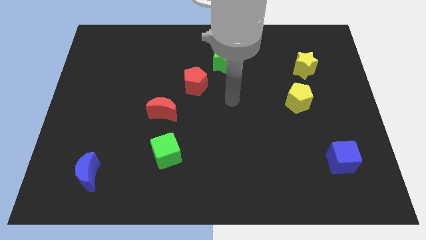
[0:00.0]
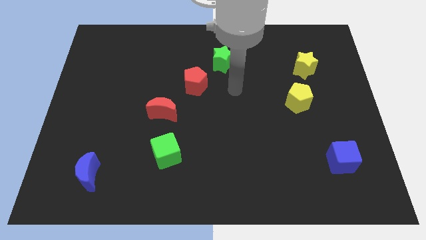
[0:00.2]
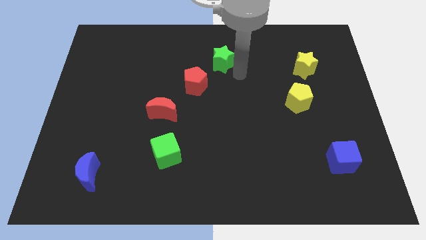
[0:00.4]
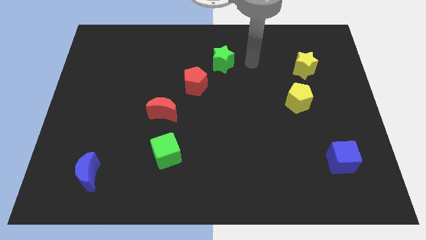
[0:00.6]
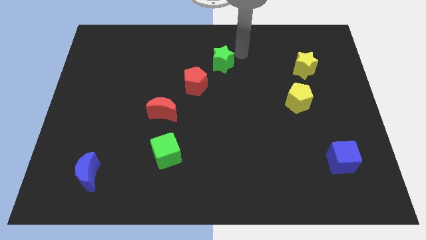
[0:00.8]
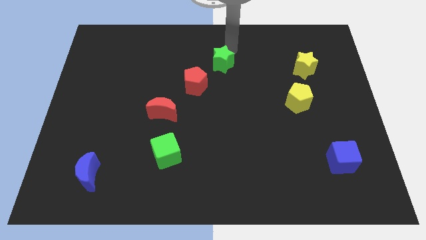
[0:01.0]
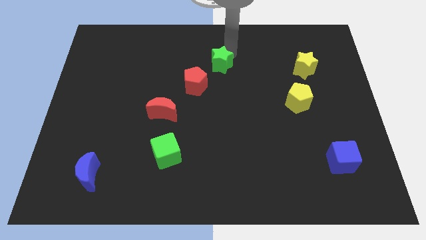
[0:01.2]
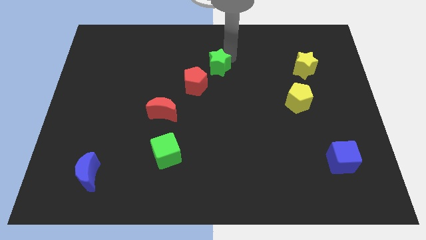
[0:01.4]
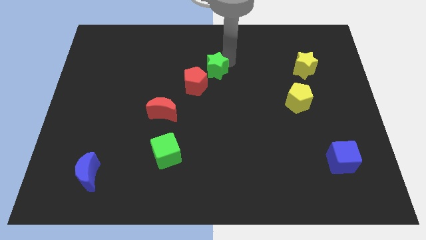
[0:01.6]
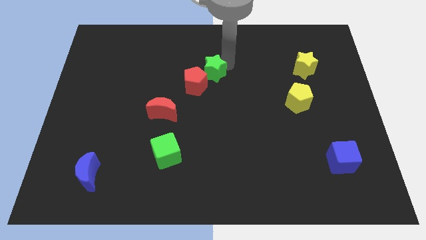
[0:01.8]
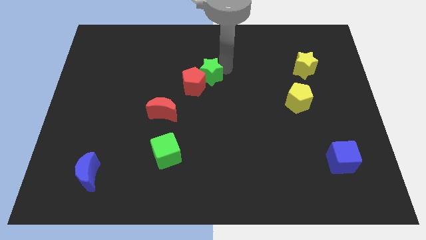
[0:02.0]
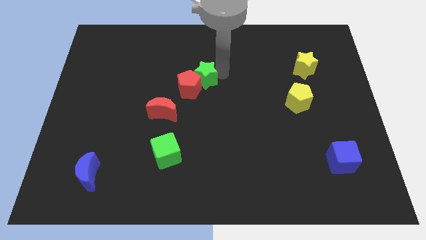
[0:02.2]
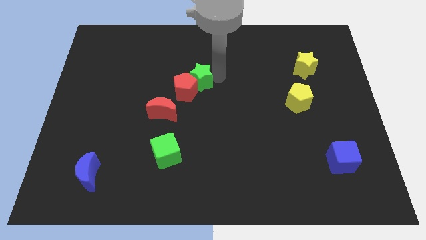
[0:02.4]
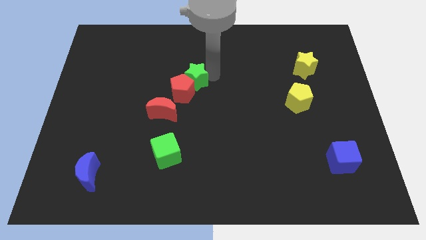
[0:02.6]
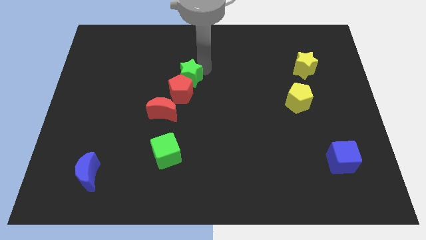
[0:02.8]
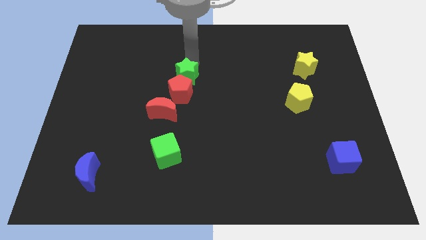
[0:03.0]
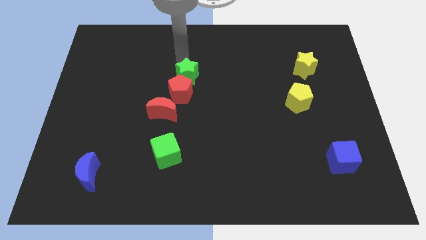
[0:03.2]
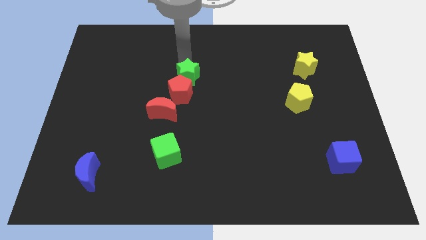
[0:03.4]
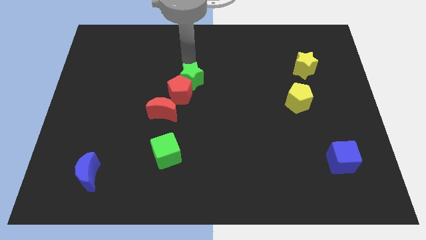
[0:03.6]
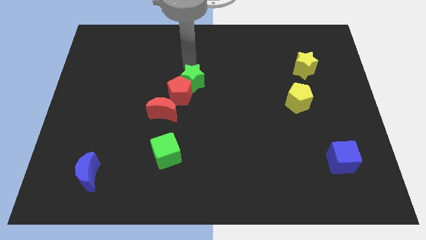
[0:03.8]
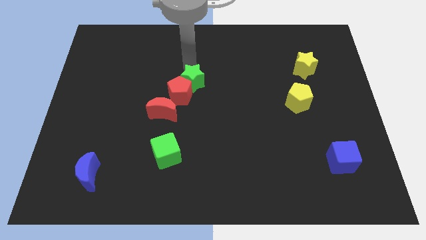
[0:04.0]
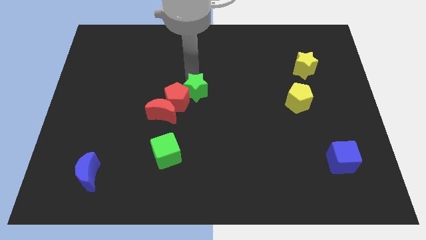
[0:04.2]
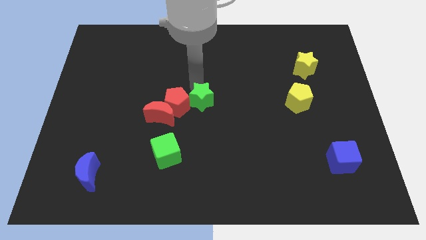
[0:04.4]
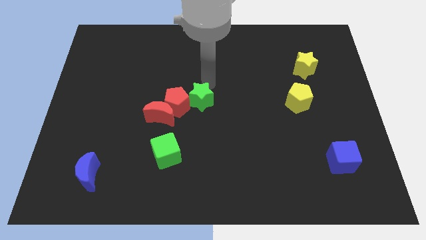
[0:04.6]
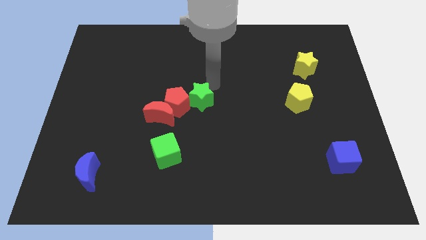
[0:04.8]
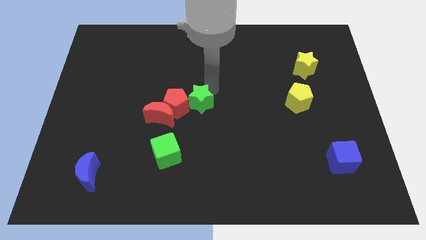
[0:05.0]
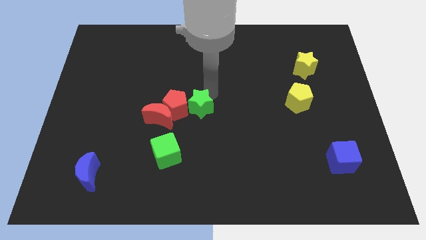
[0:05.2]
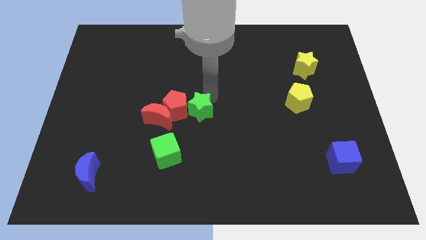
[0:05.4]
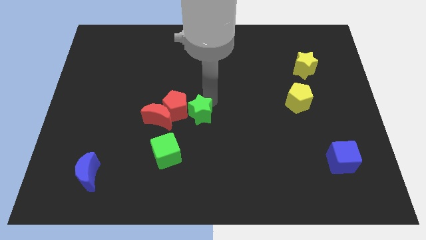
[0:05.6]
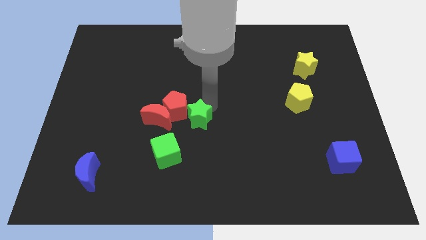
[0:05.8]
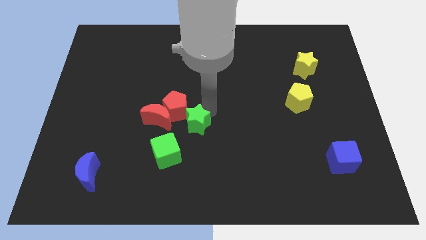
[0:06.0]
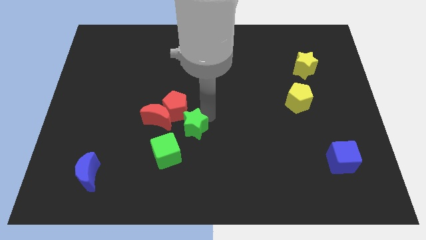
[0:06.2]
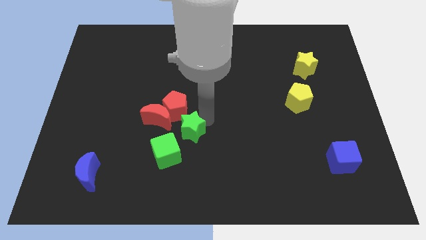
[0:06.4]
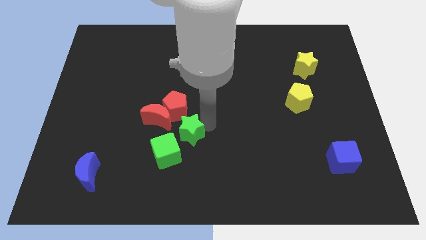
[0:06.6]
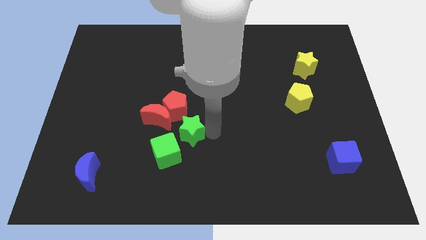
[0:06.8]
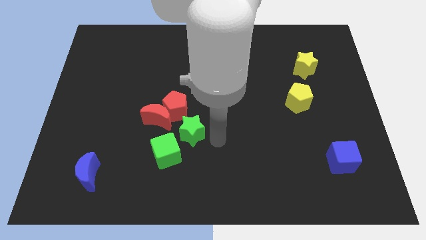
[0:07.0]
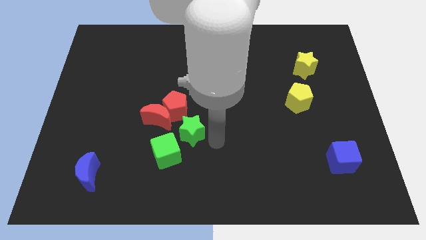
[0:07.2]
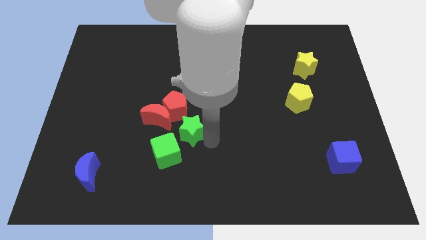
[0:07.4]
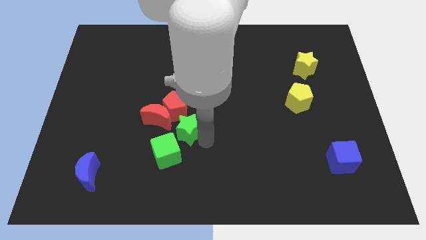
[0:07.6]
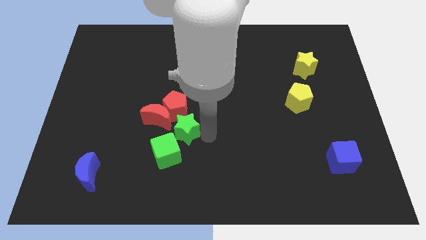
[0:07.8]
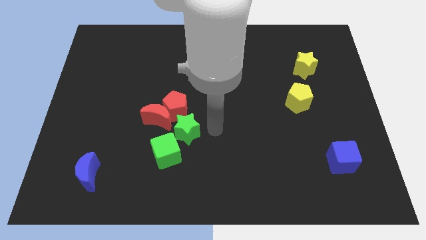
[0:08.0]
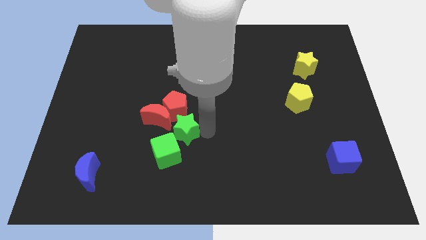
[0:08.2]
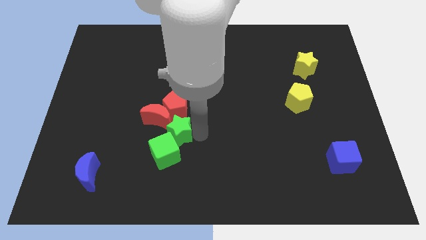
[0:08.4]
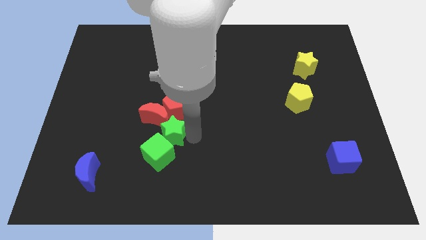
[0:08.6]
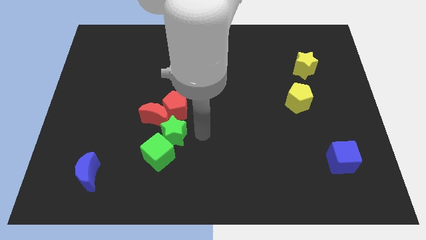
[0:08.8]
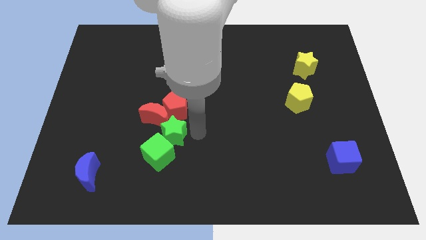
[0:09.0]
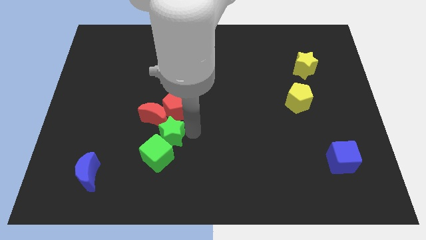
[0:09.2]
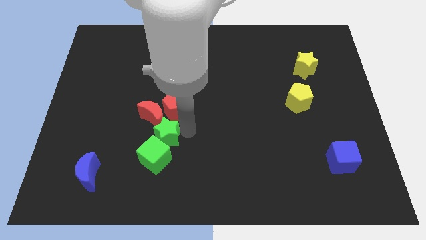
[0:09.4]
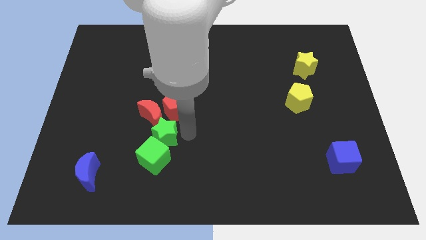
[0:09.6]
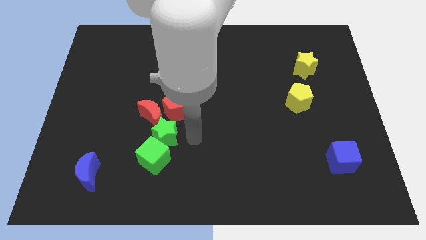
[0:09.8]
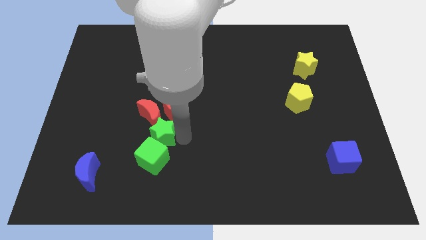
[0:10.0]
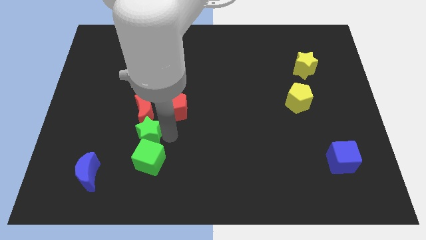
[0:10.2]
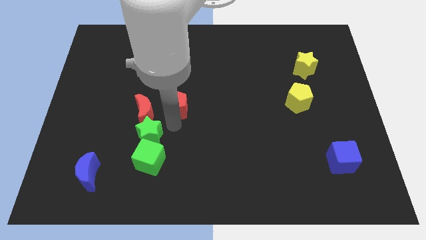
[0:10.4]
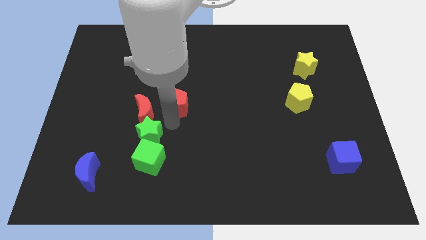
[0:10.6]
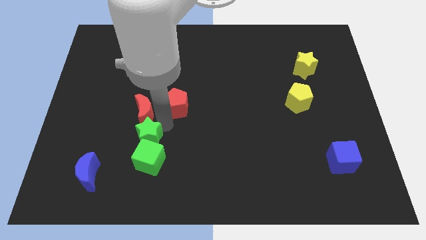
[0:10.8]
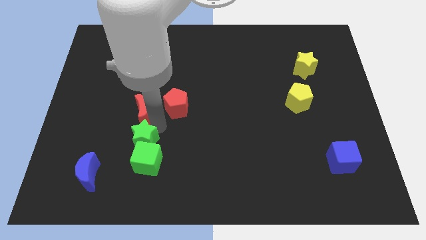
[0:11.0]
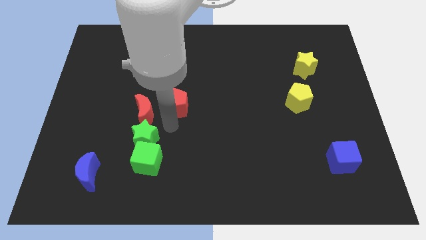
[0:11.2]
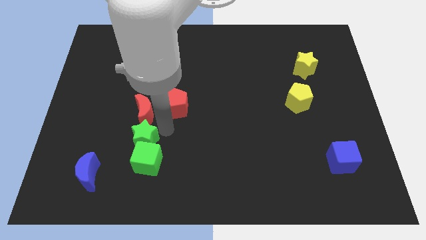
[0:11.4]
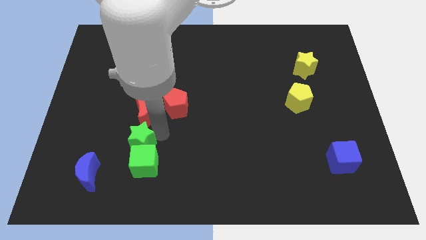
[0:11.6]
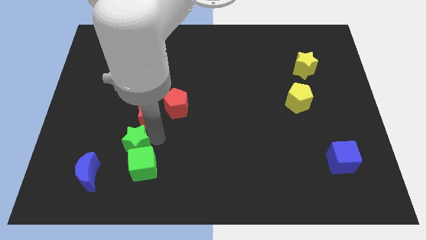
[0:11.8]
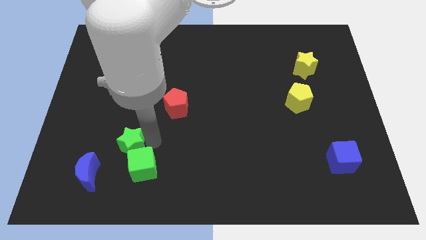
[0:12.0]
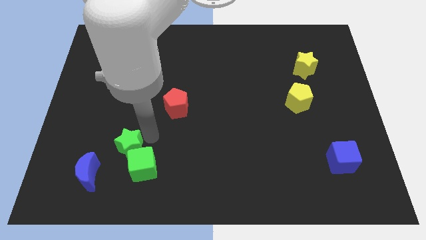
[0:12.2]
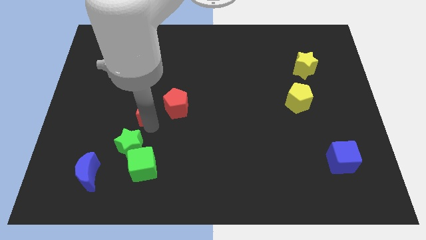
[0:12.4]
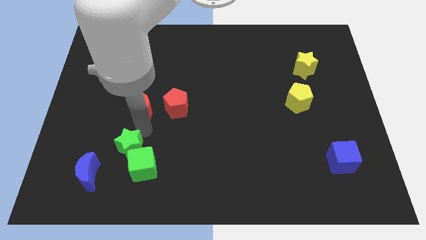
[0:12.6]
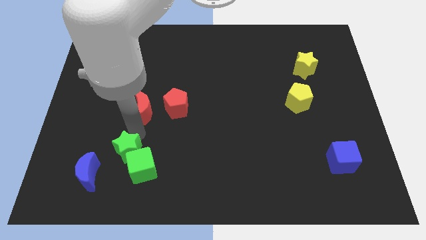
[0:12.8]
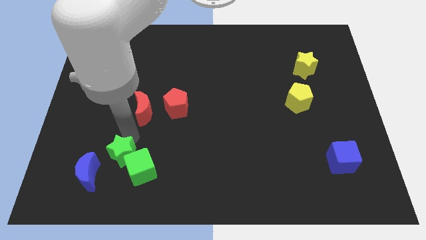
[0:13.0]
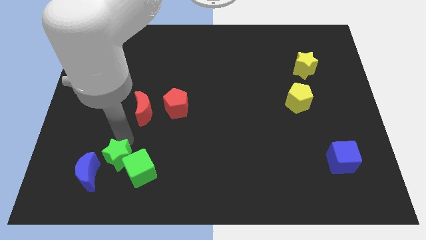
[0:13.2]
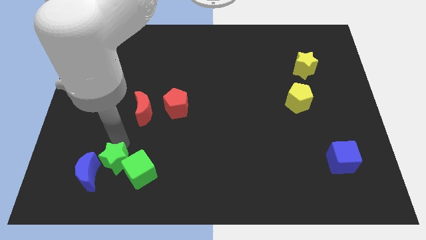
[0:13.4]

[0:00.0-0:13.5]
slide the green star close to the blue moon
